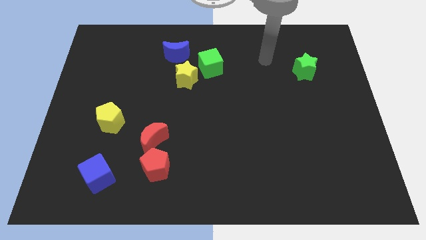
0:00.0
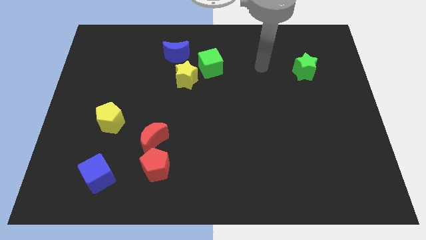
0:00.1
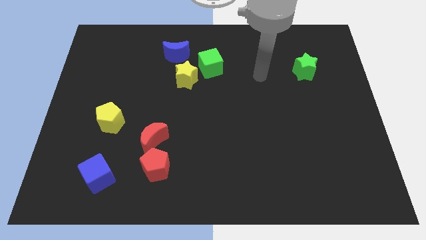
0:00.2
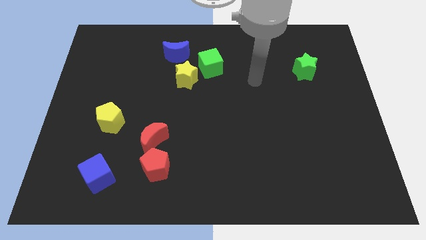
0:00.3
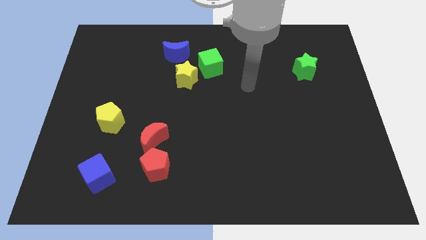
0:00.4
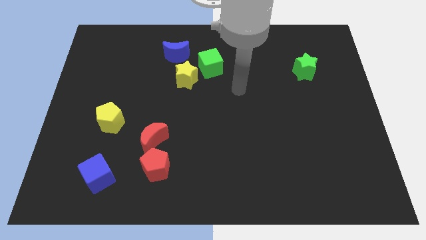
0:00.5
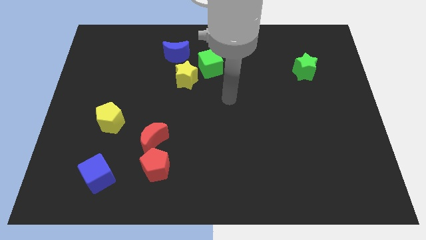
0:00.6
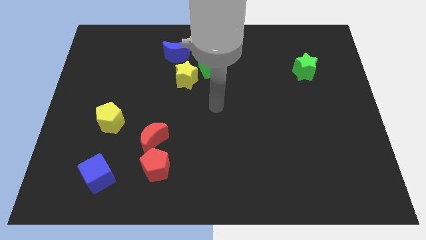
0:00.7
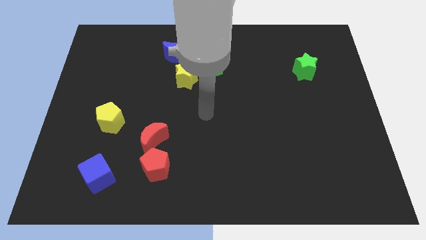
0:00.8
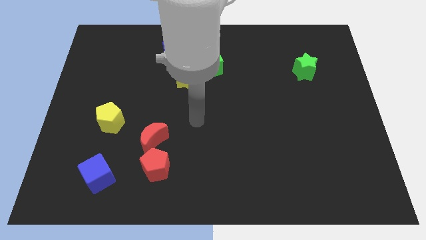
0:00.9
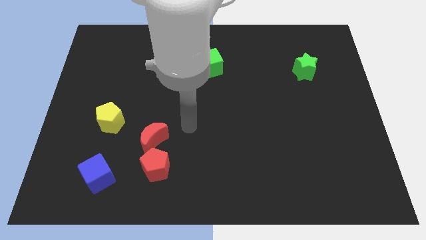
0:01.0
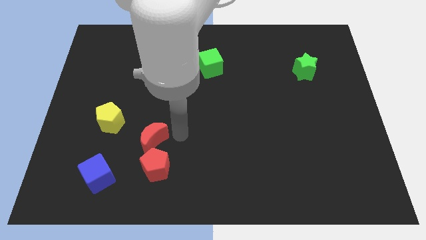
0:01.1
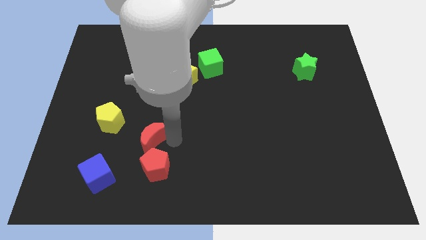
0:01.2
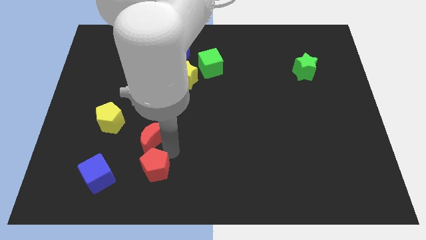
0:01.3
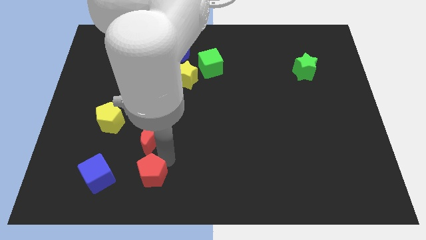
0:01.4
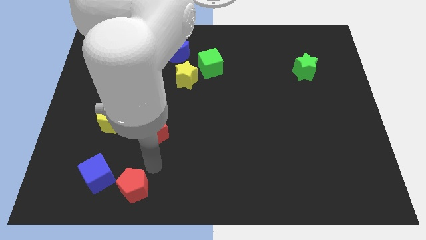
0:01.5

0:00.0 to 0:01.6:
pull the red moon apart from the red pentagon

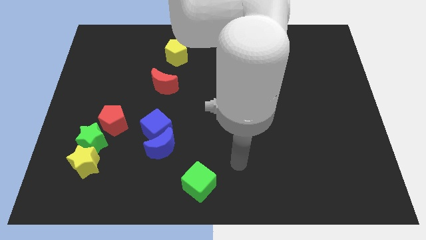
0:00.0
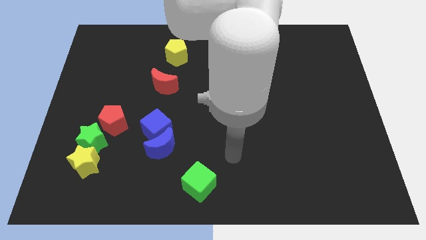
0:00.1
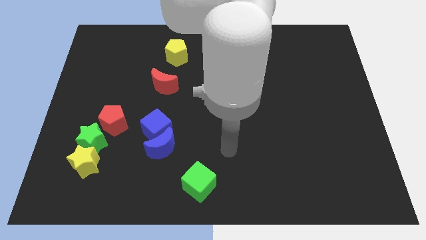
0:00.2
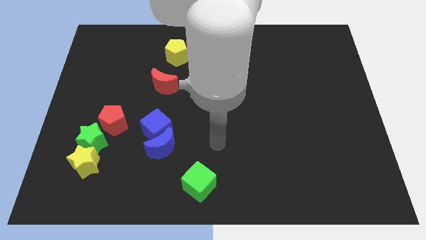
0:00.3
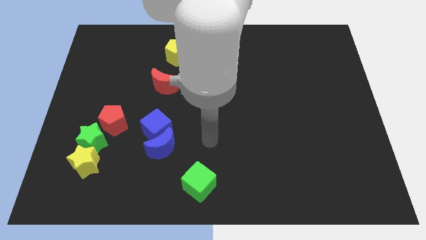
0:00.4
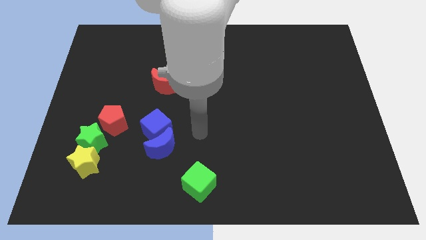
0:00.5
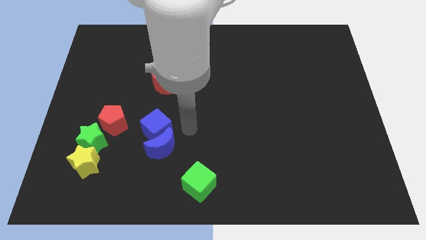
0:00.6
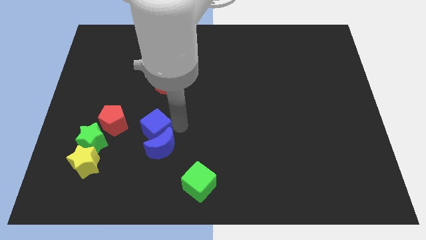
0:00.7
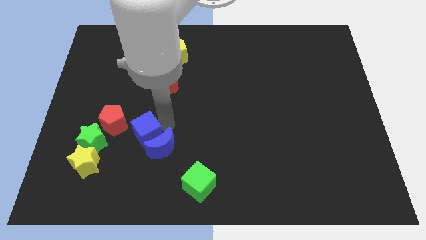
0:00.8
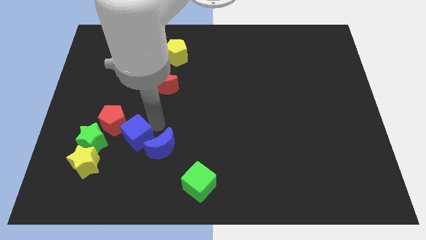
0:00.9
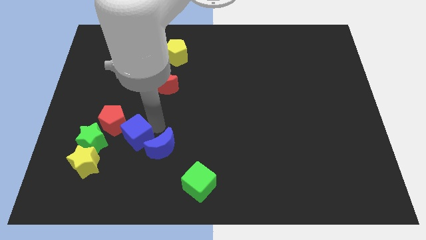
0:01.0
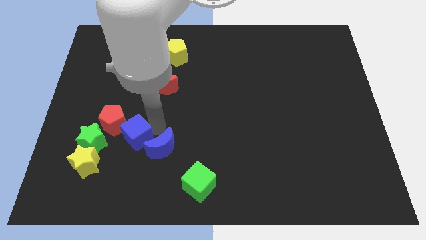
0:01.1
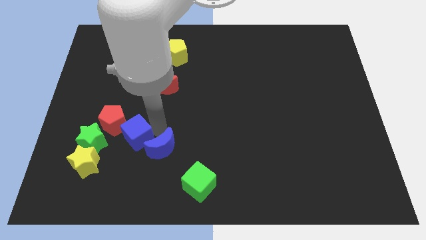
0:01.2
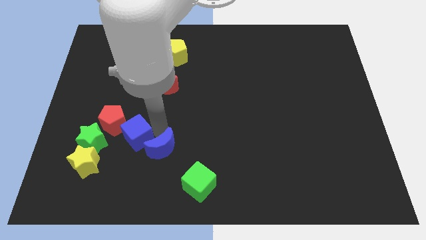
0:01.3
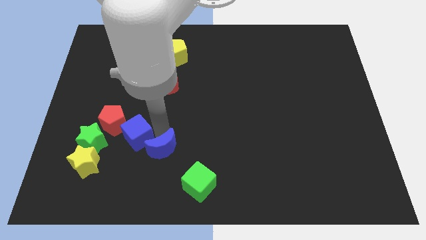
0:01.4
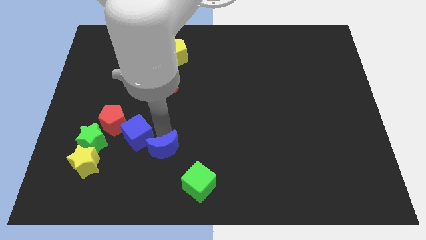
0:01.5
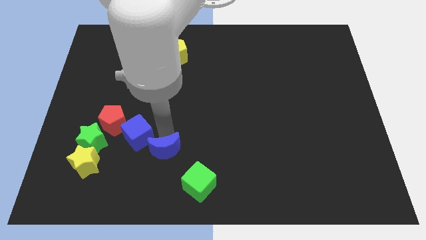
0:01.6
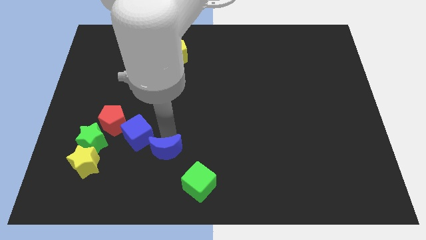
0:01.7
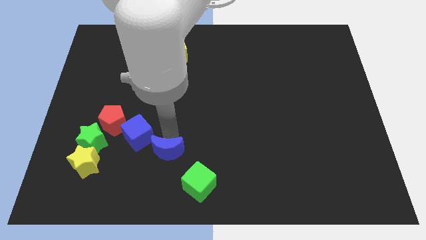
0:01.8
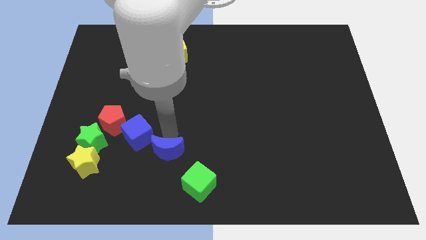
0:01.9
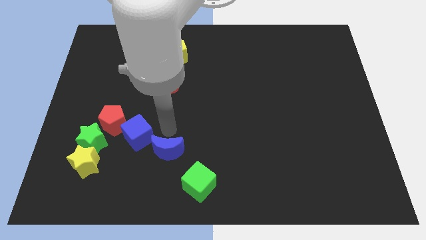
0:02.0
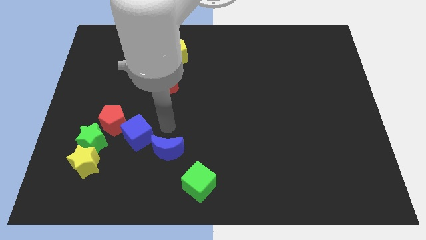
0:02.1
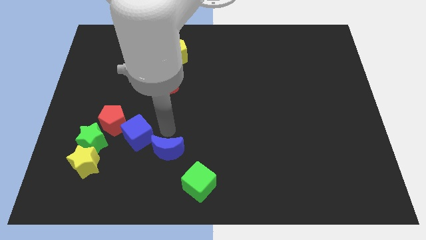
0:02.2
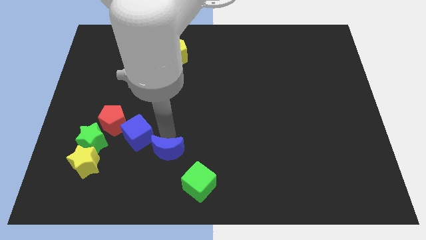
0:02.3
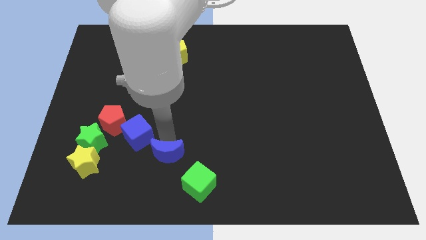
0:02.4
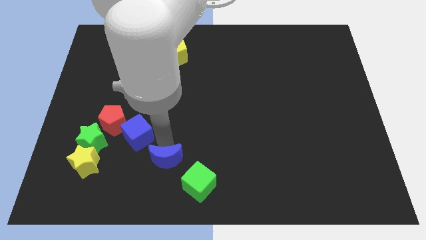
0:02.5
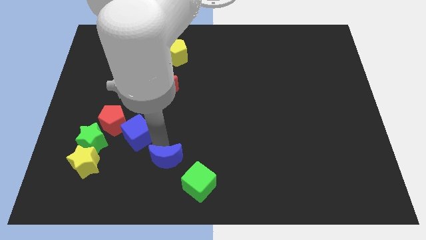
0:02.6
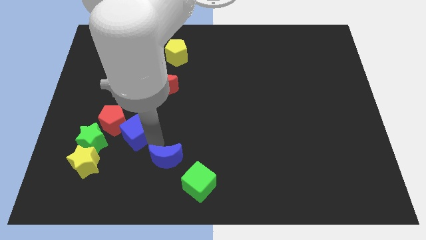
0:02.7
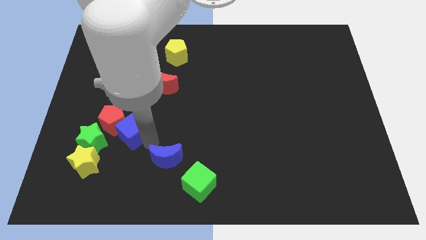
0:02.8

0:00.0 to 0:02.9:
move the blue moon away from the blue cube

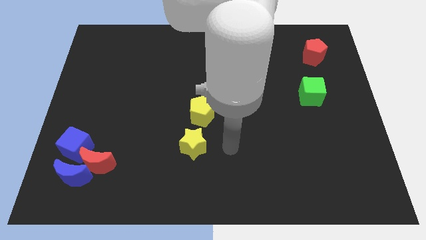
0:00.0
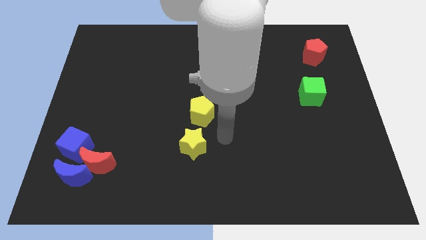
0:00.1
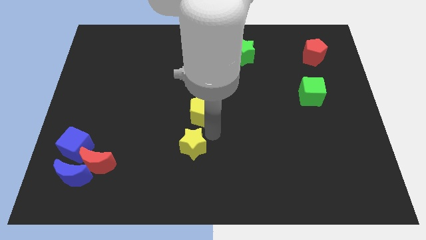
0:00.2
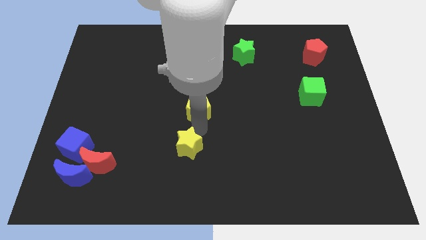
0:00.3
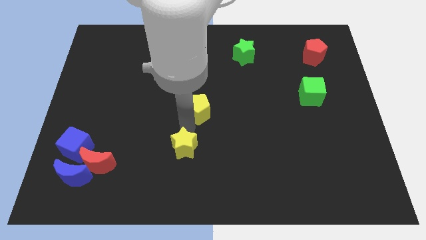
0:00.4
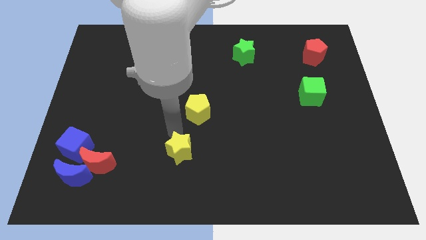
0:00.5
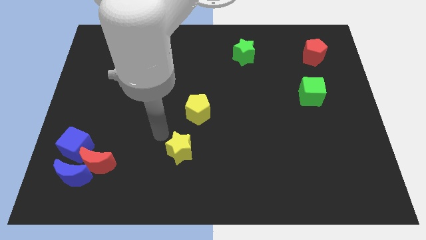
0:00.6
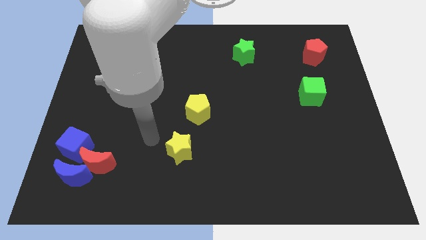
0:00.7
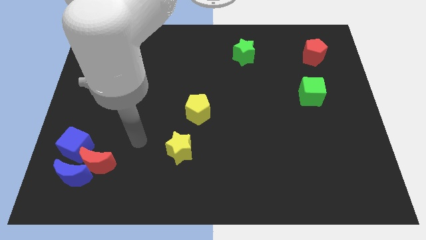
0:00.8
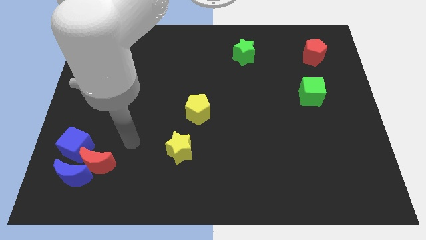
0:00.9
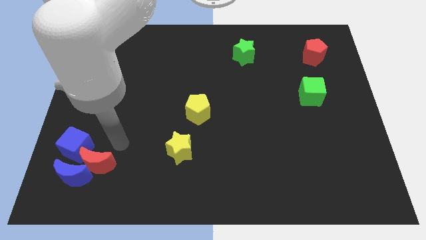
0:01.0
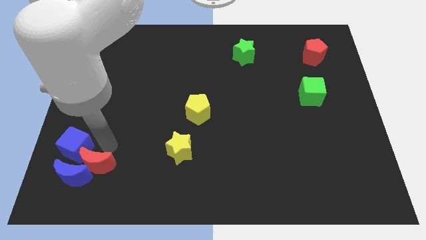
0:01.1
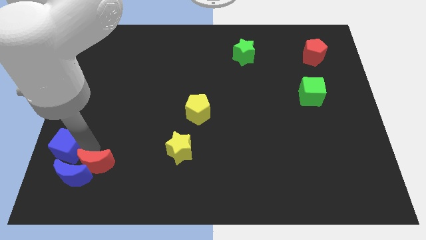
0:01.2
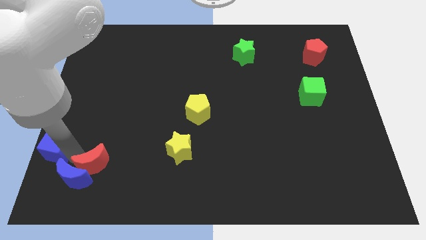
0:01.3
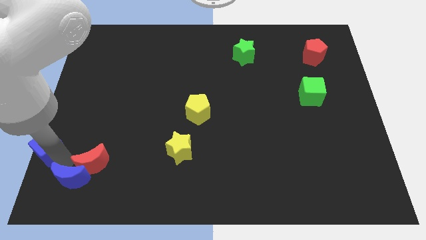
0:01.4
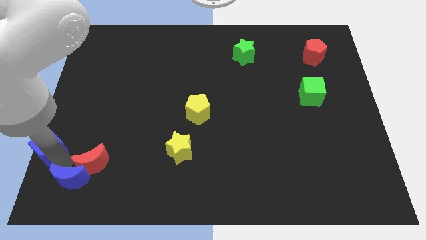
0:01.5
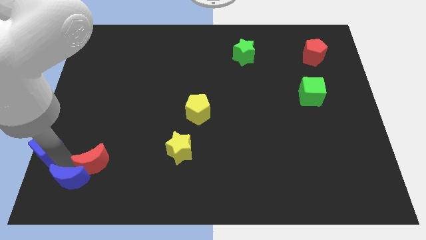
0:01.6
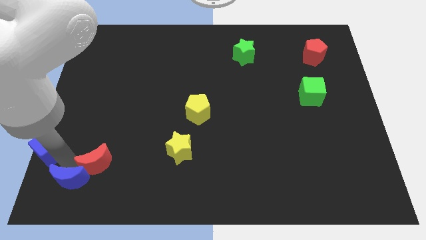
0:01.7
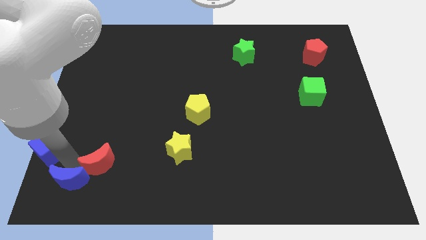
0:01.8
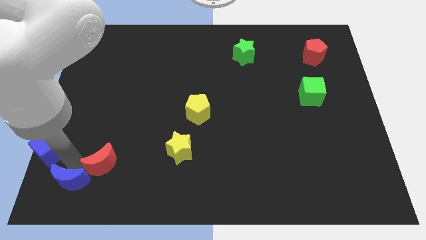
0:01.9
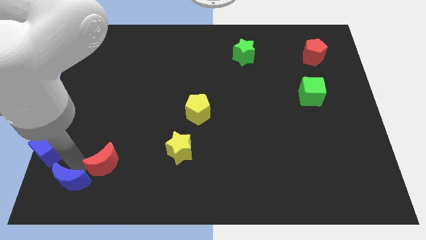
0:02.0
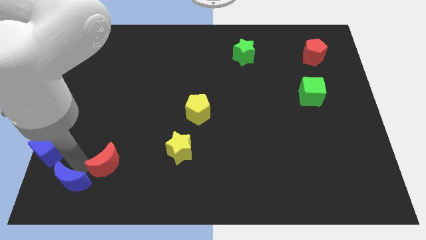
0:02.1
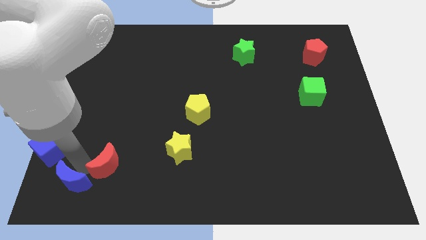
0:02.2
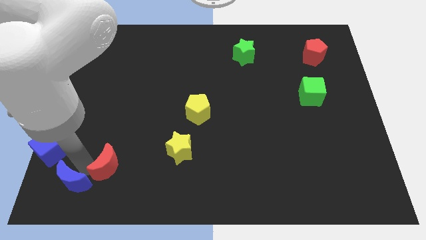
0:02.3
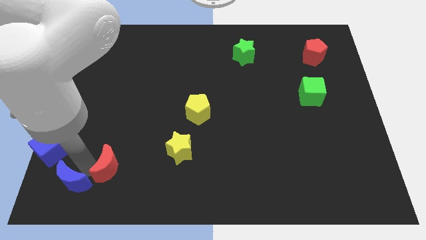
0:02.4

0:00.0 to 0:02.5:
pull the red moon apart from the blue moon and blue cube

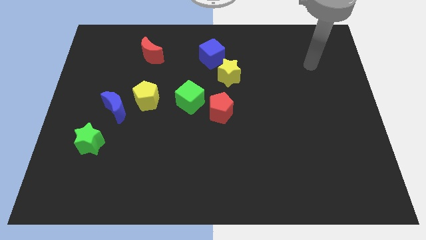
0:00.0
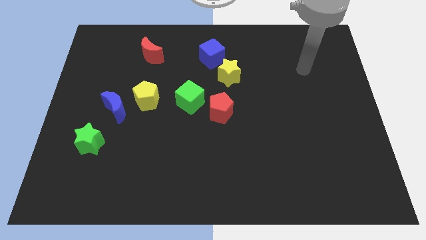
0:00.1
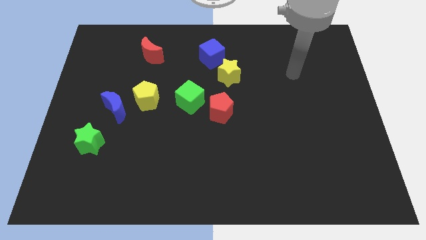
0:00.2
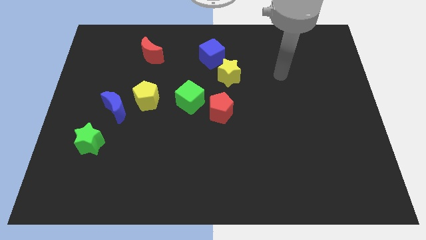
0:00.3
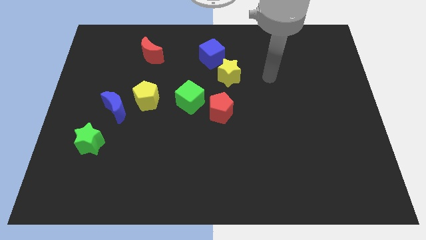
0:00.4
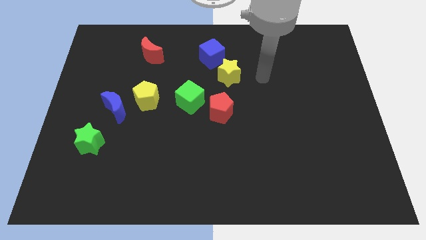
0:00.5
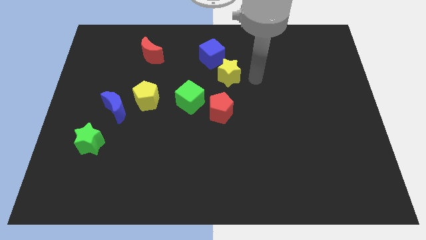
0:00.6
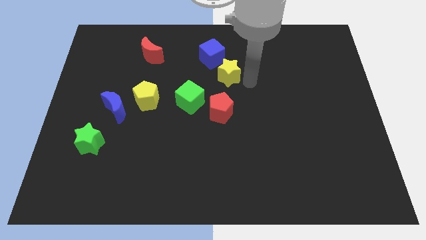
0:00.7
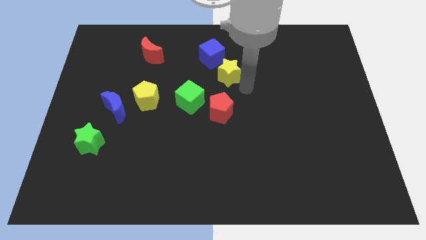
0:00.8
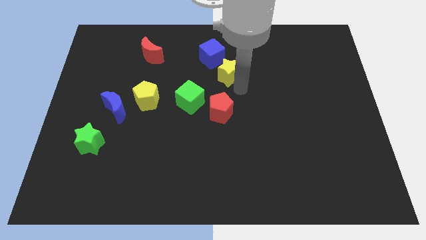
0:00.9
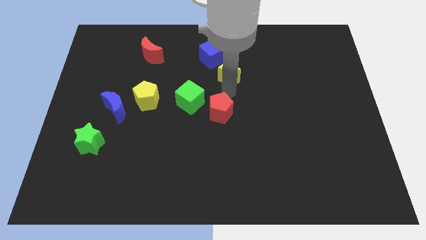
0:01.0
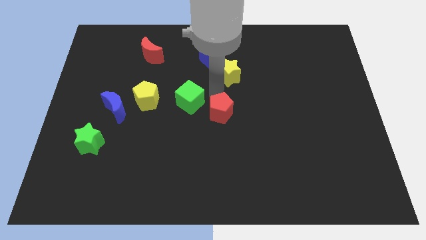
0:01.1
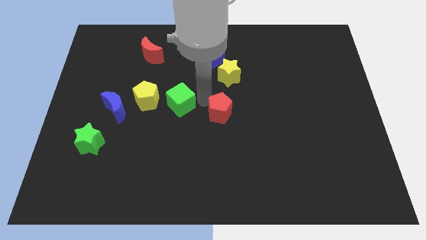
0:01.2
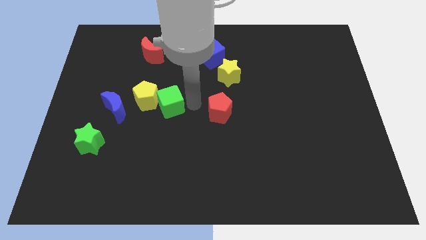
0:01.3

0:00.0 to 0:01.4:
move the red pentagon away from the green cube

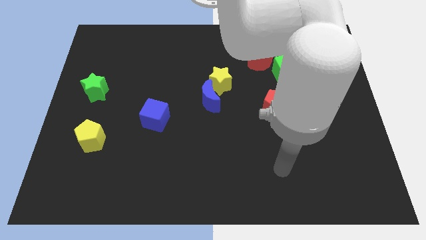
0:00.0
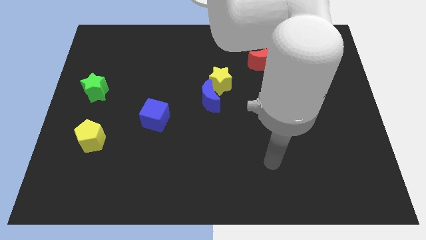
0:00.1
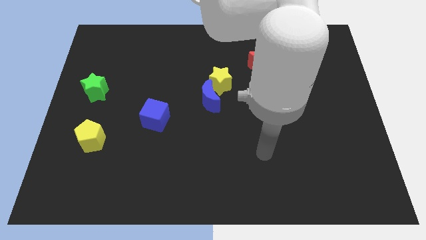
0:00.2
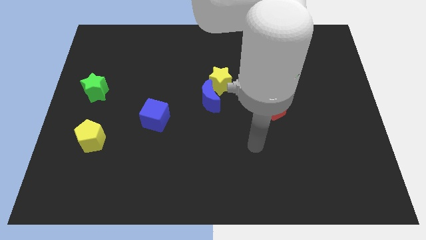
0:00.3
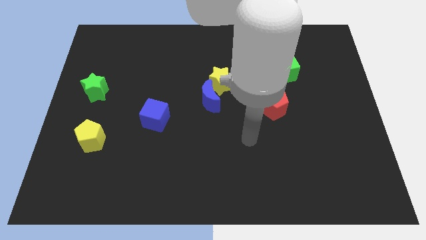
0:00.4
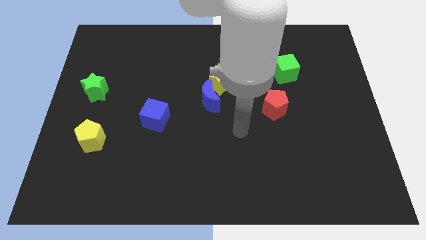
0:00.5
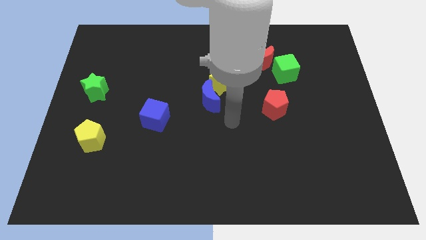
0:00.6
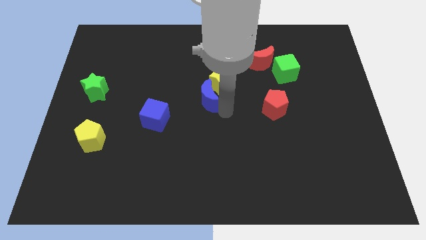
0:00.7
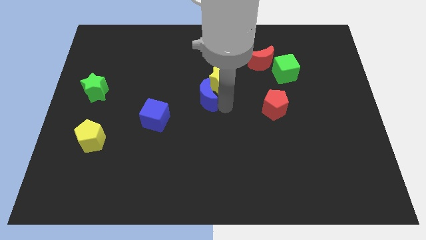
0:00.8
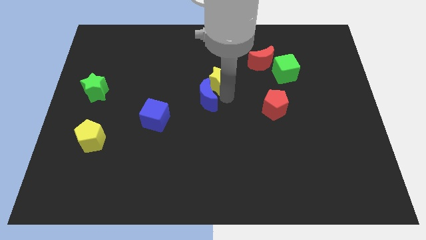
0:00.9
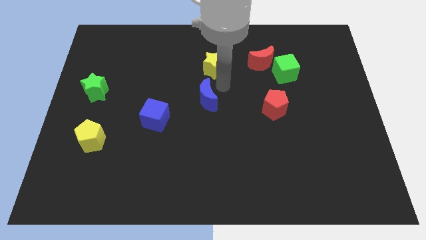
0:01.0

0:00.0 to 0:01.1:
pull the blue moon apart from the yellow star

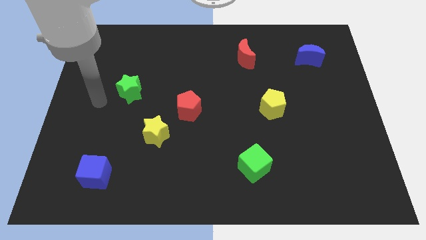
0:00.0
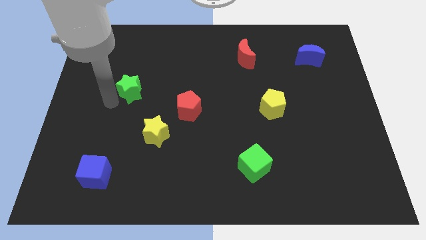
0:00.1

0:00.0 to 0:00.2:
pull the red pentagon apart from the yellow star
